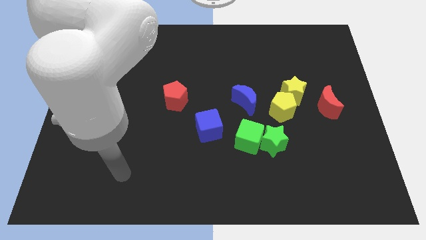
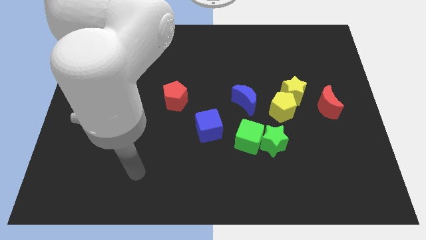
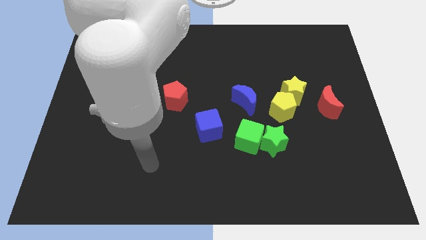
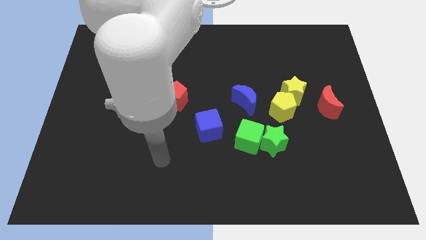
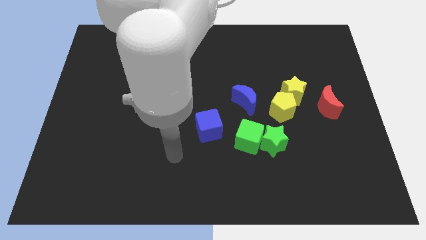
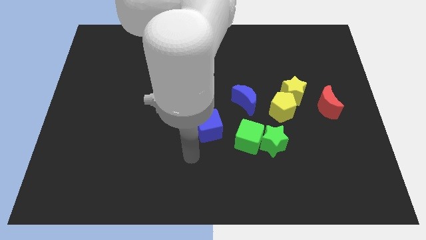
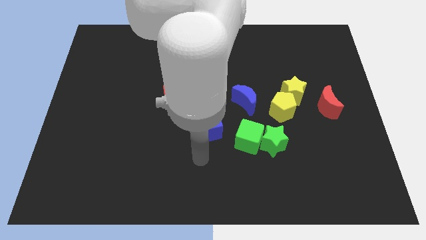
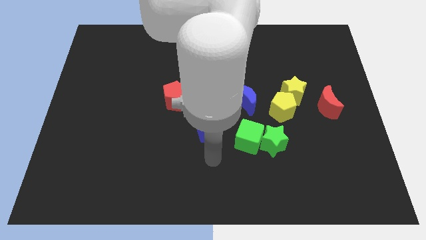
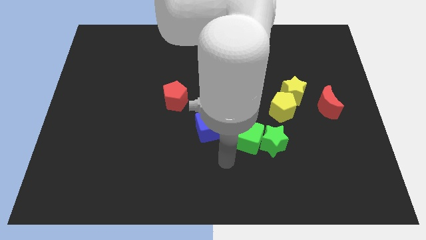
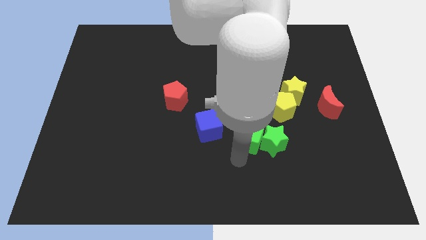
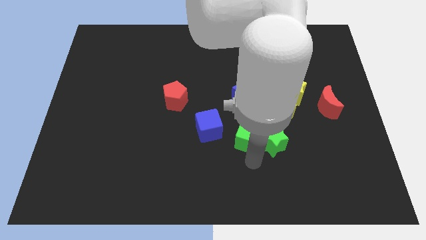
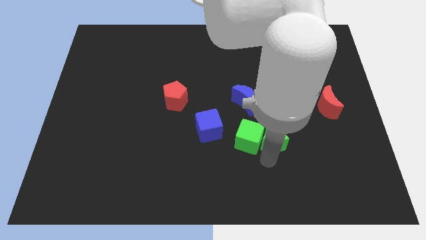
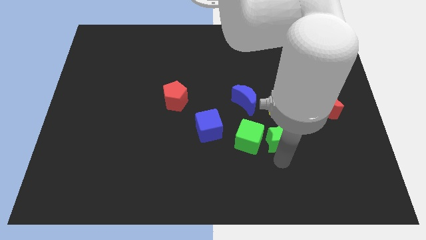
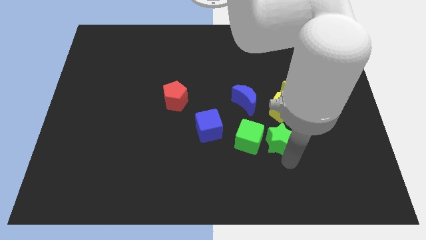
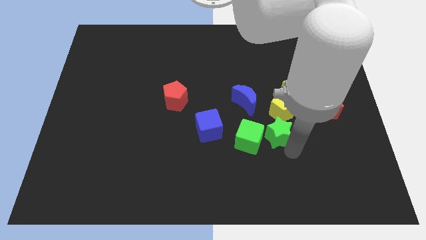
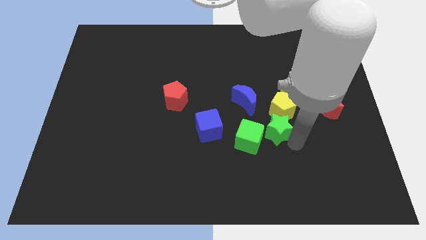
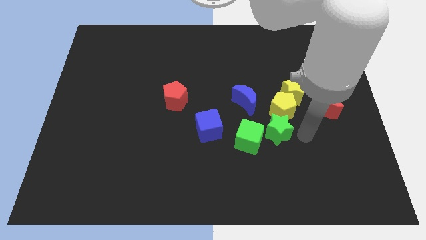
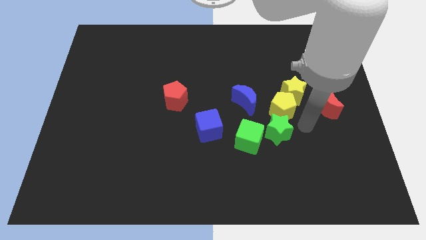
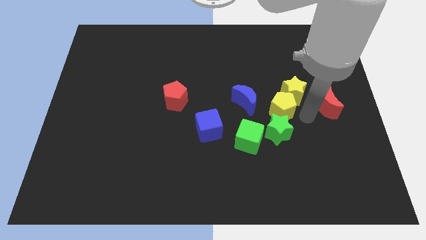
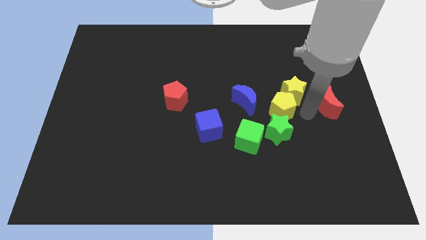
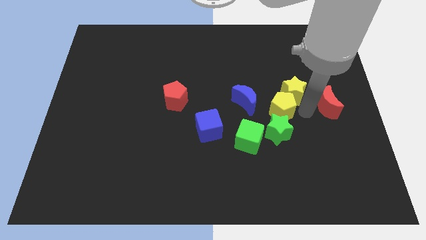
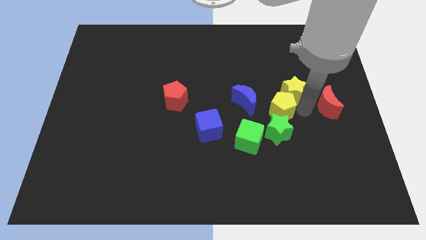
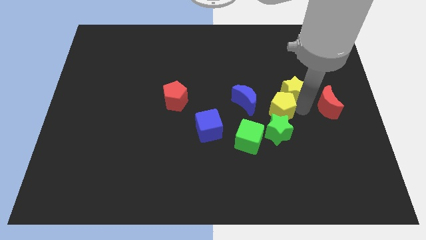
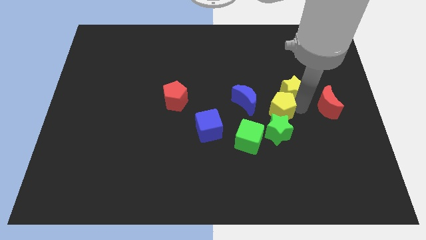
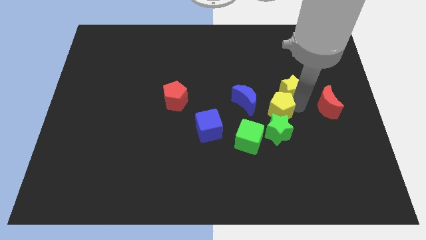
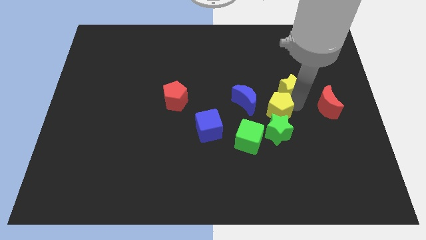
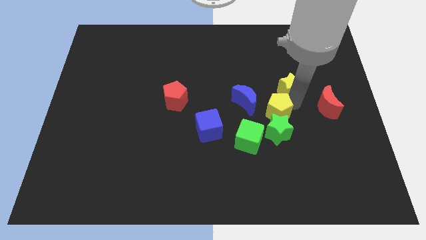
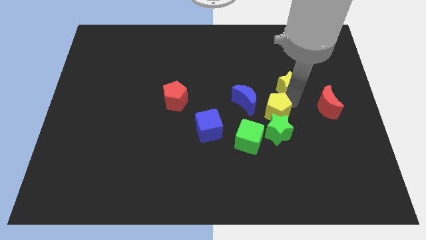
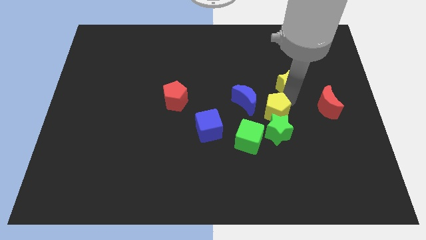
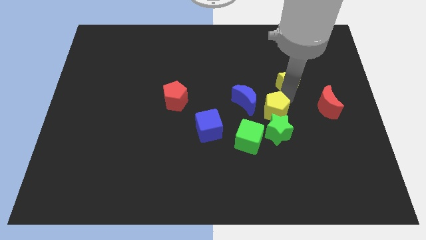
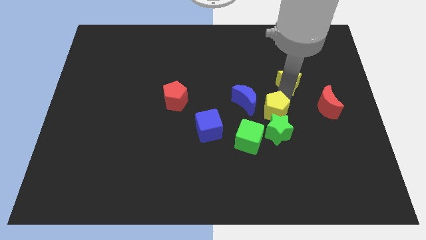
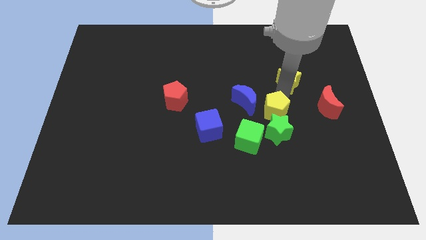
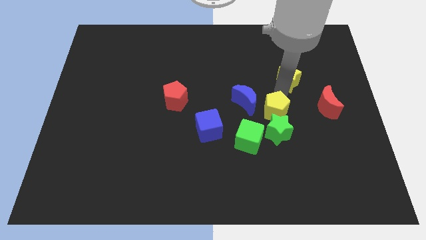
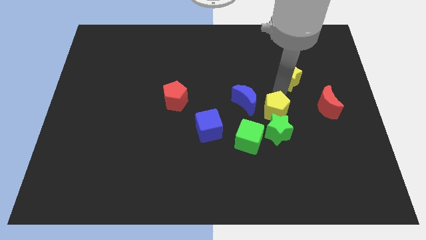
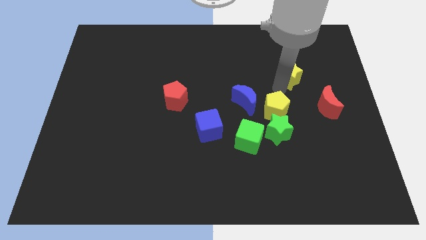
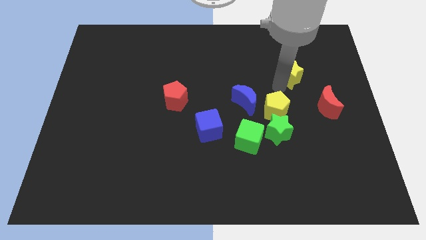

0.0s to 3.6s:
separate the yellow star from the yellow pentagon and red moon

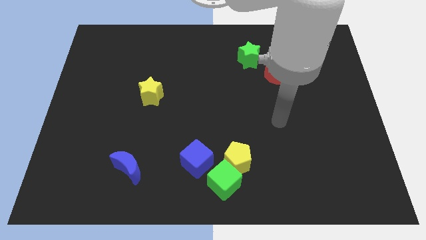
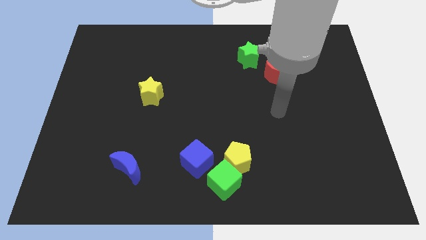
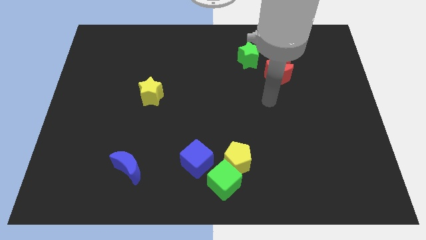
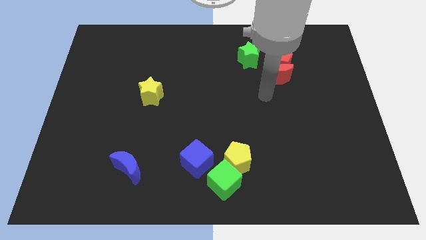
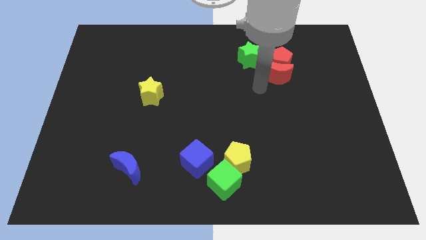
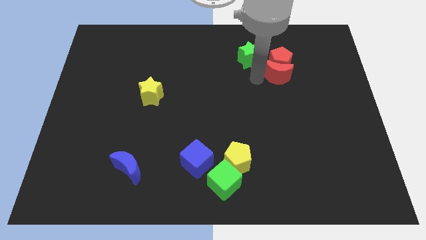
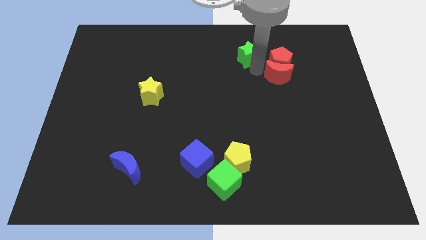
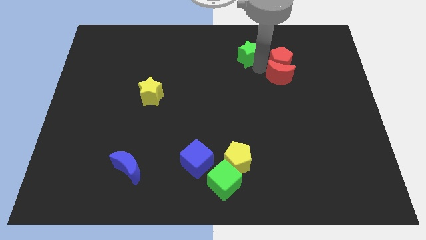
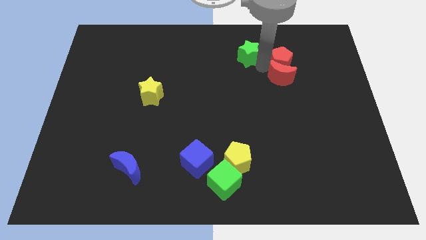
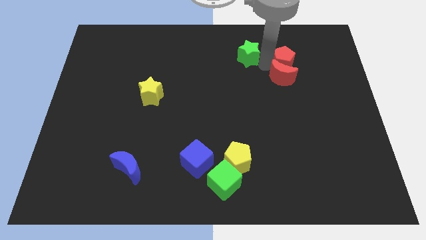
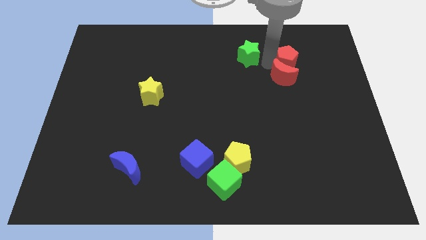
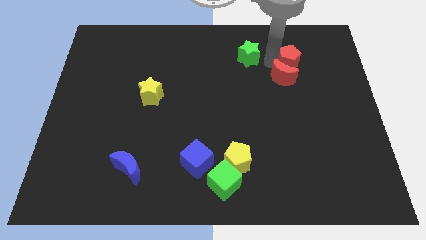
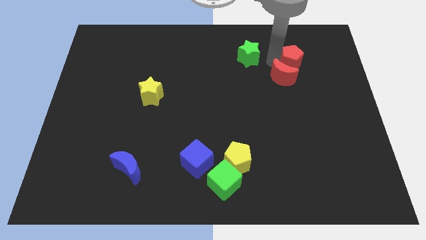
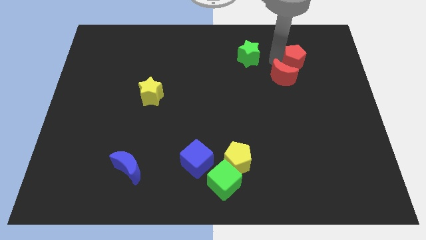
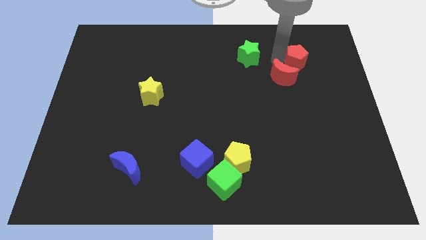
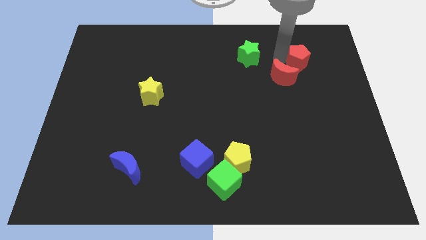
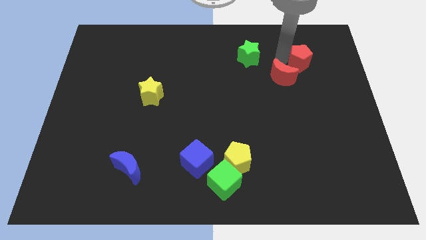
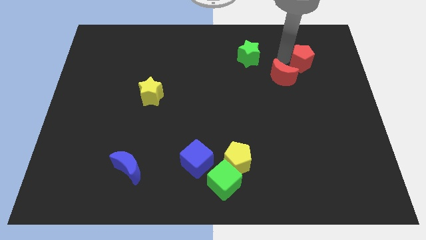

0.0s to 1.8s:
separate the red pentagon from the red moon and green star

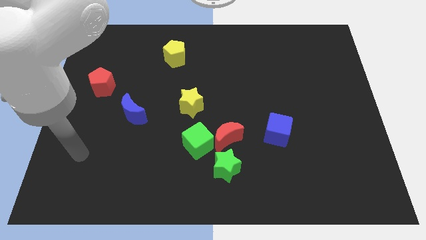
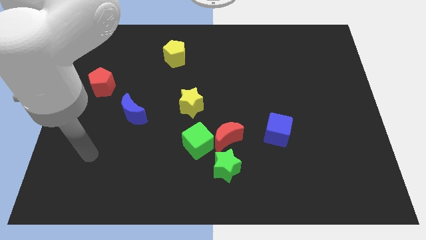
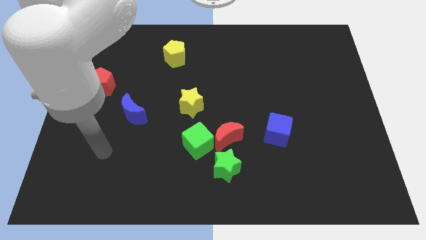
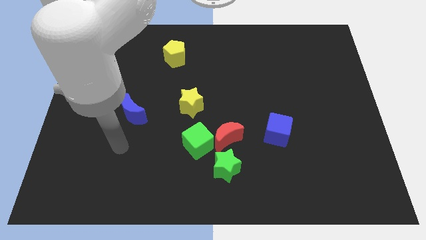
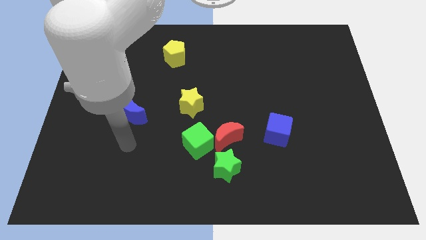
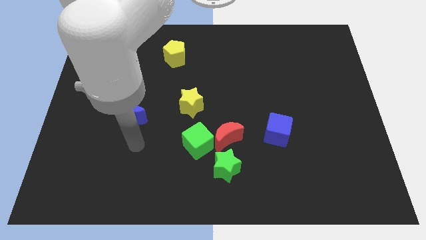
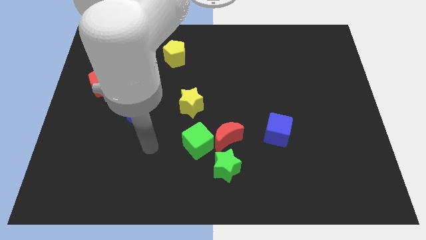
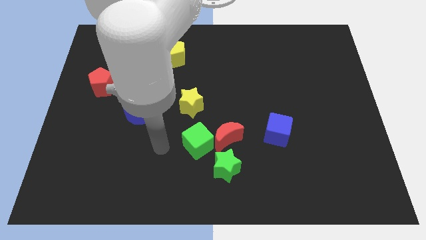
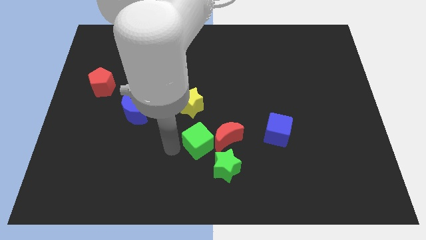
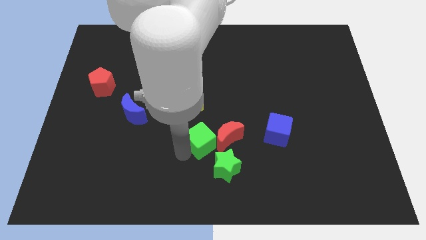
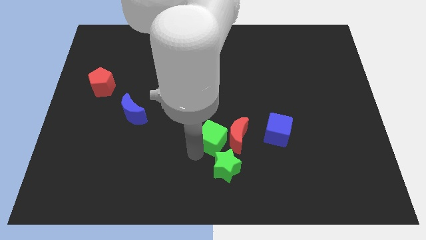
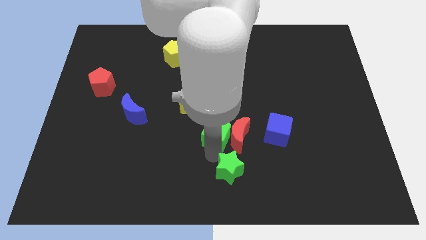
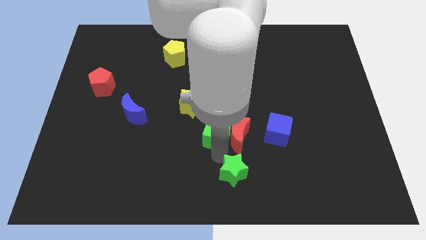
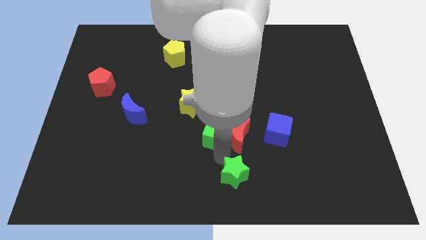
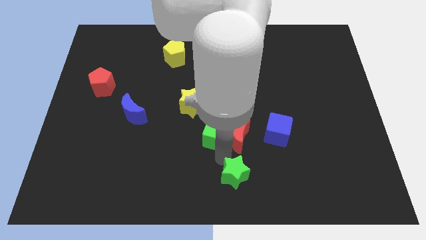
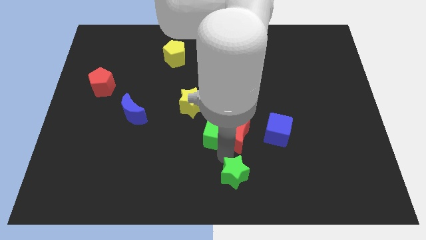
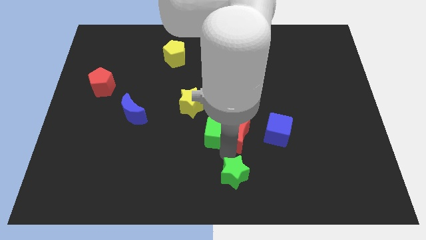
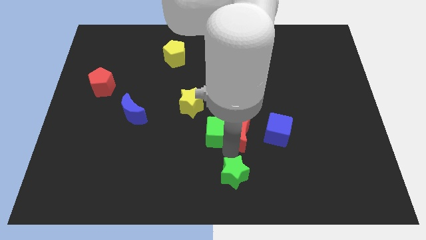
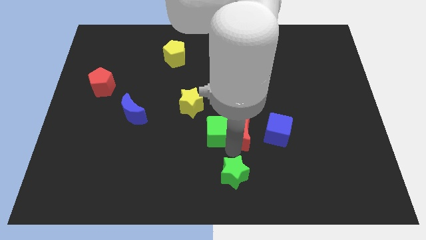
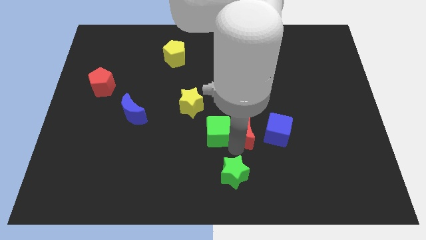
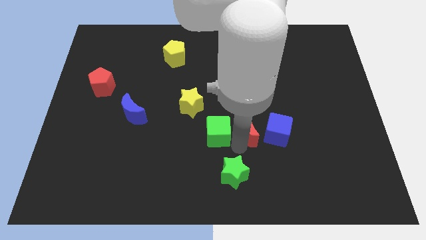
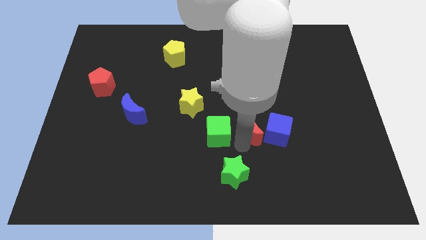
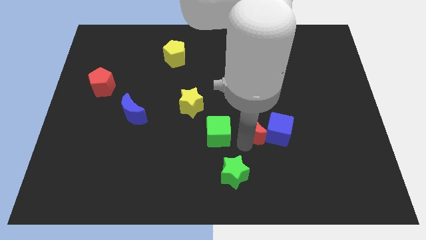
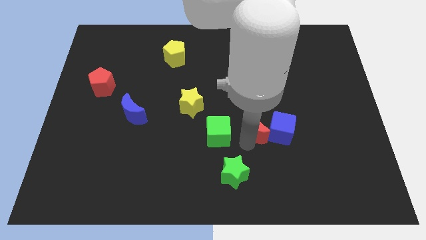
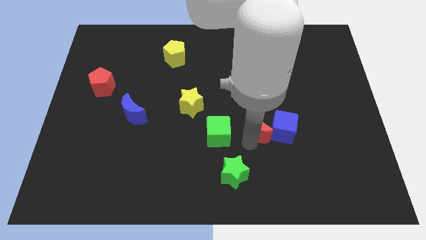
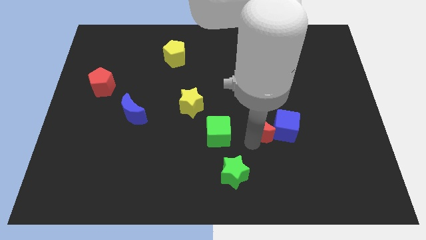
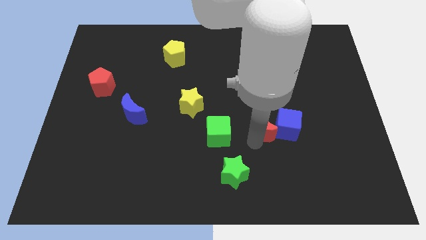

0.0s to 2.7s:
pull the red moon apart from the green cube and green star

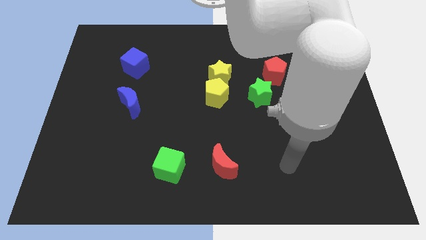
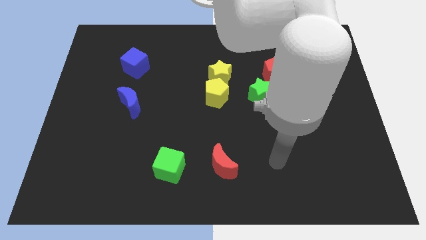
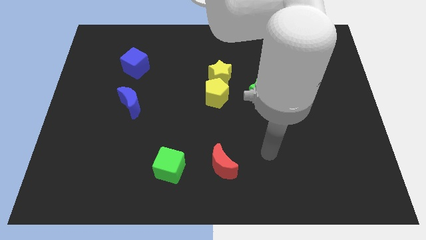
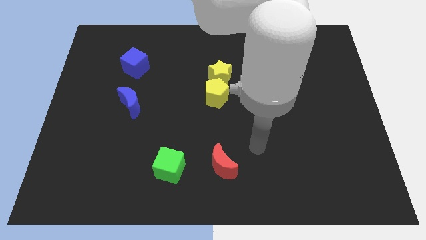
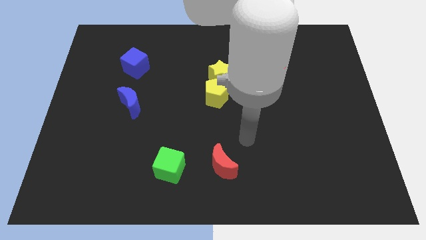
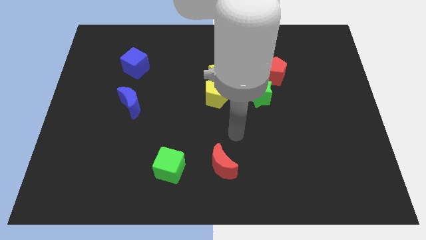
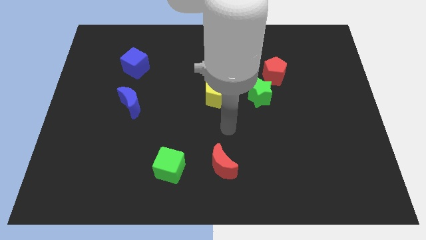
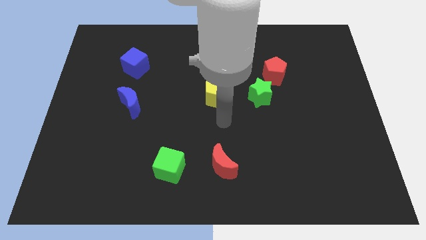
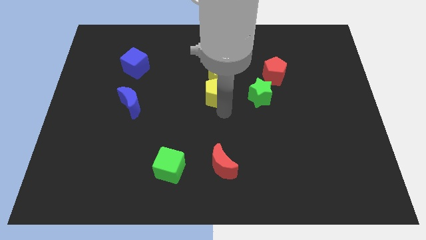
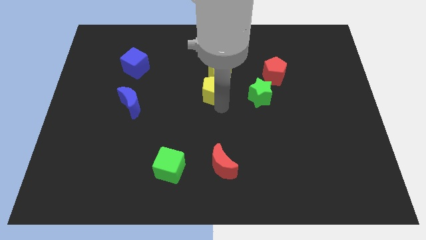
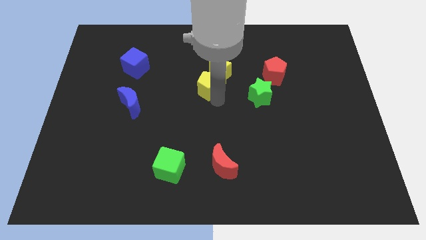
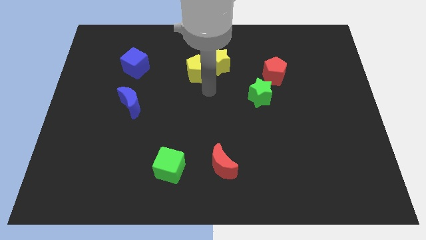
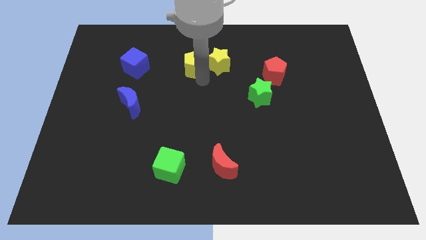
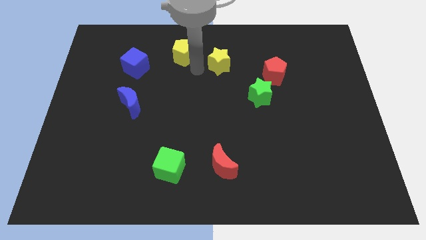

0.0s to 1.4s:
pull the yellow star apart from the yellow pentagon

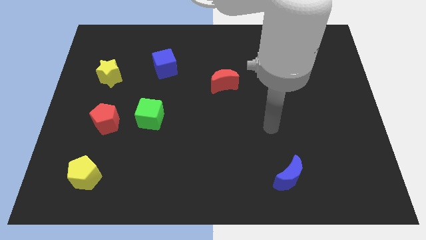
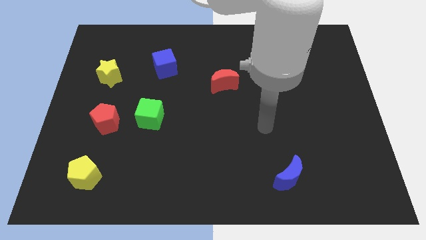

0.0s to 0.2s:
move the red pentagon away from the green cube
